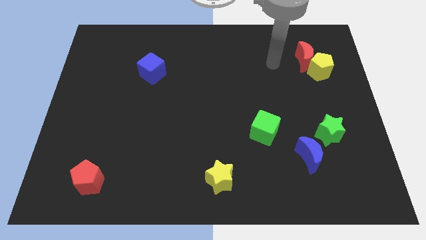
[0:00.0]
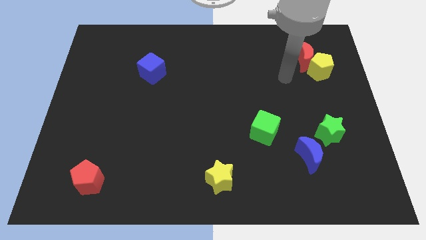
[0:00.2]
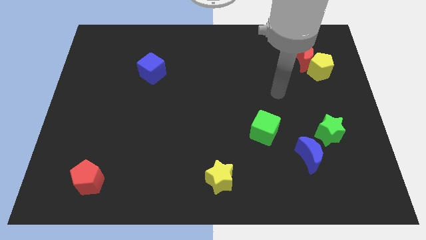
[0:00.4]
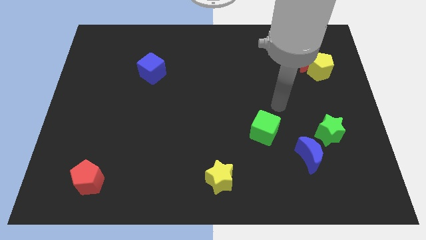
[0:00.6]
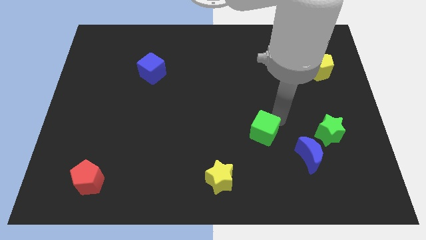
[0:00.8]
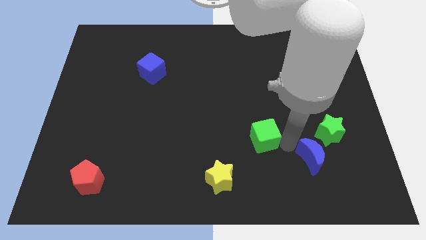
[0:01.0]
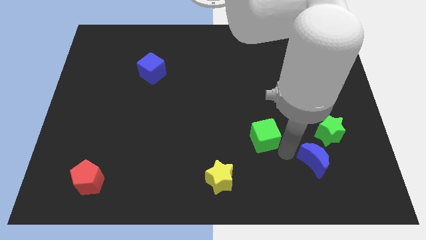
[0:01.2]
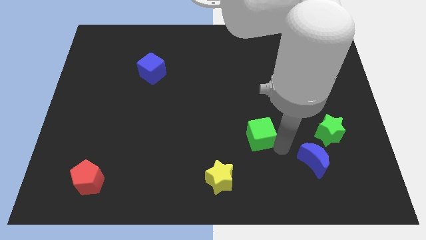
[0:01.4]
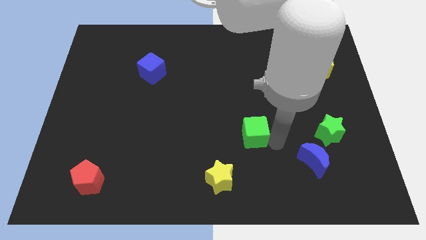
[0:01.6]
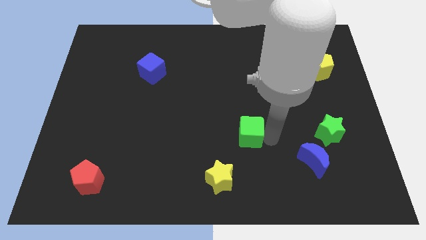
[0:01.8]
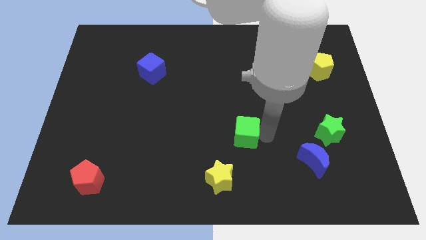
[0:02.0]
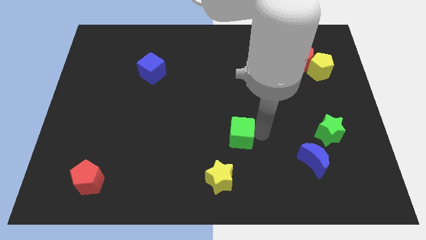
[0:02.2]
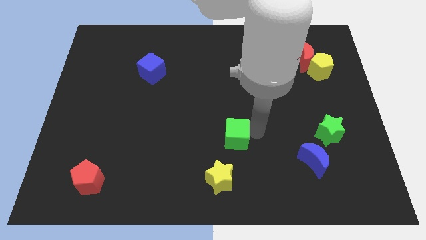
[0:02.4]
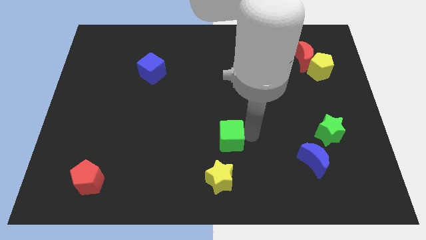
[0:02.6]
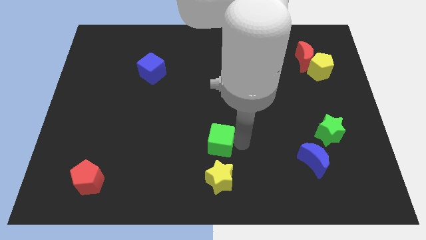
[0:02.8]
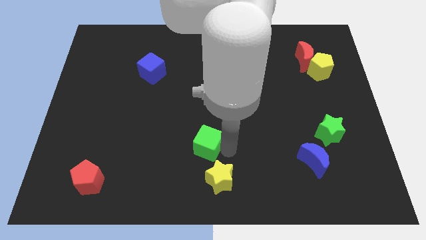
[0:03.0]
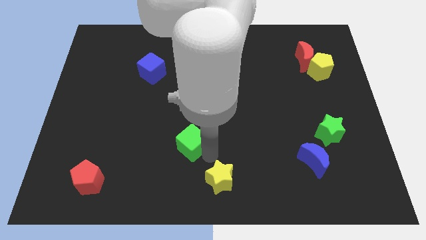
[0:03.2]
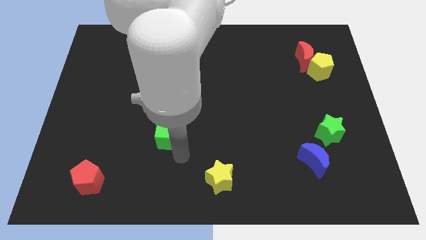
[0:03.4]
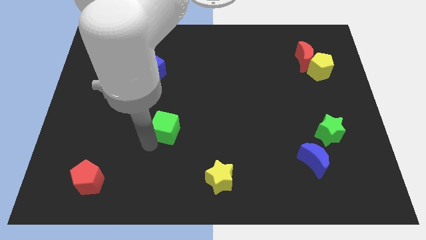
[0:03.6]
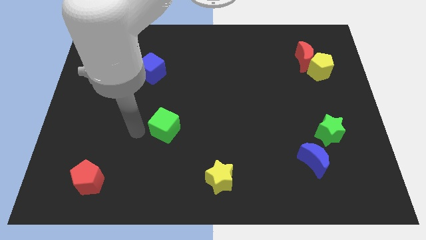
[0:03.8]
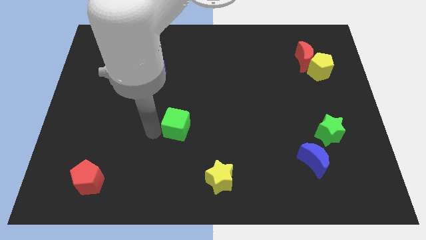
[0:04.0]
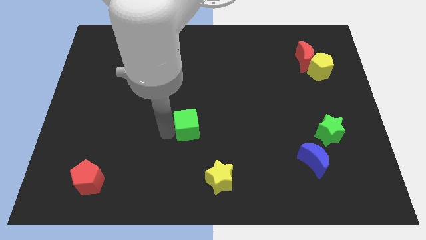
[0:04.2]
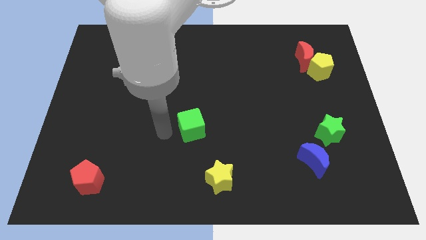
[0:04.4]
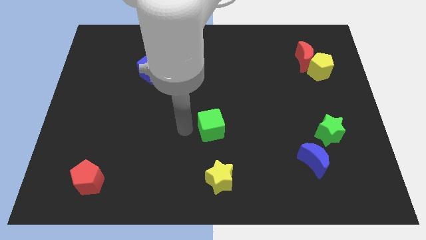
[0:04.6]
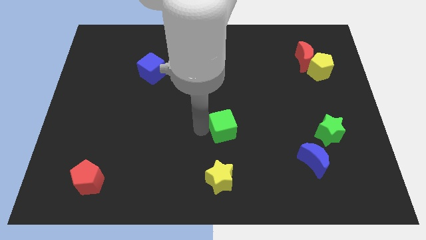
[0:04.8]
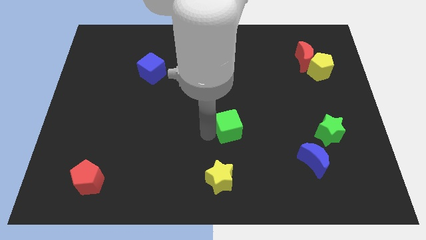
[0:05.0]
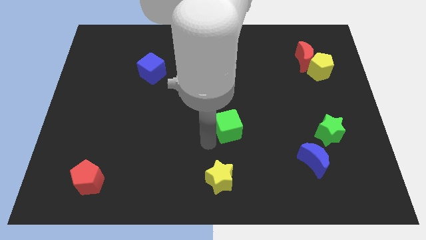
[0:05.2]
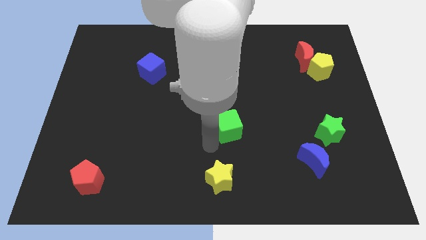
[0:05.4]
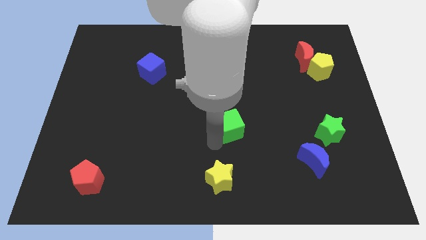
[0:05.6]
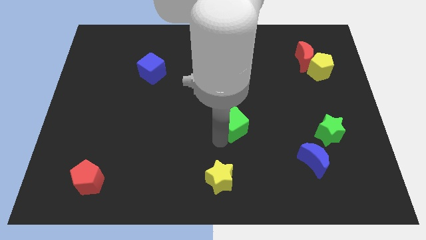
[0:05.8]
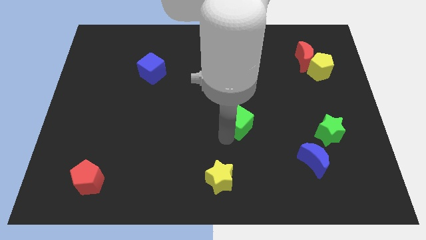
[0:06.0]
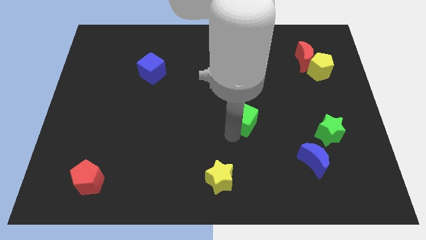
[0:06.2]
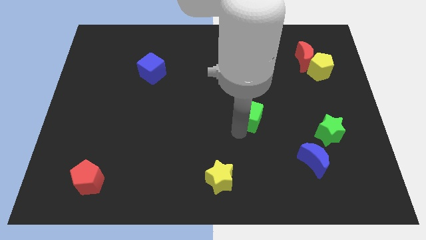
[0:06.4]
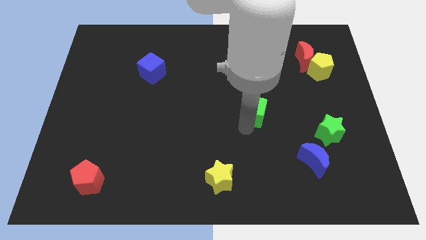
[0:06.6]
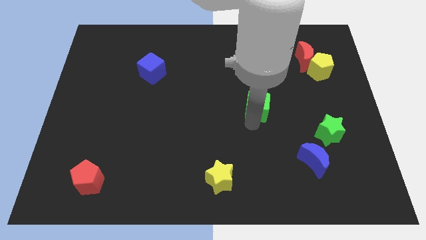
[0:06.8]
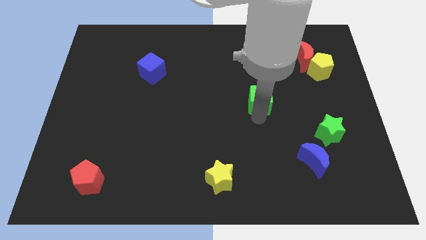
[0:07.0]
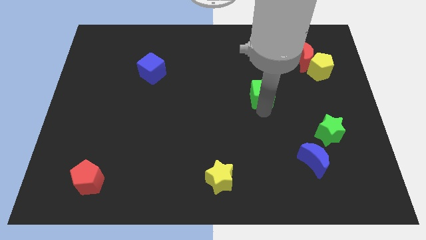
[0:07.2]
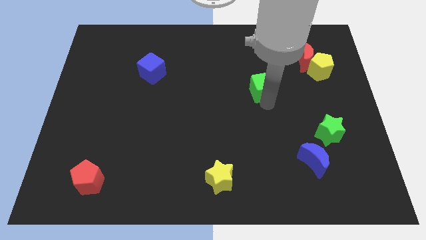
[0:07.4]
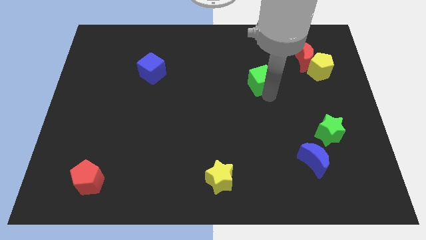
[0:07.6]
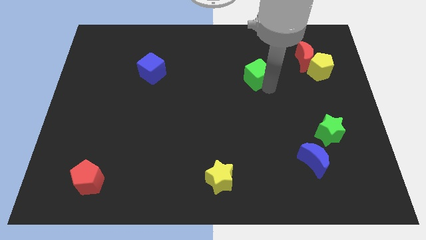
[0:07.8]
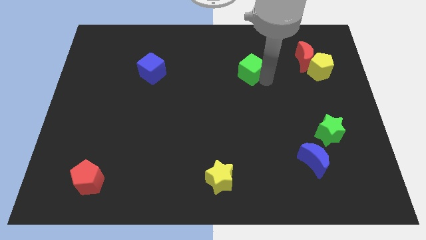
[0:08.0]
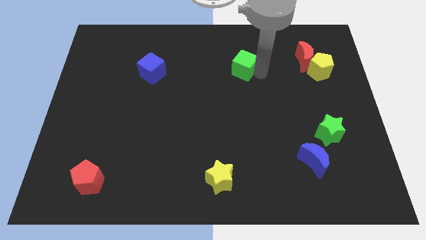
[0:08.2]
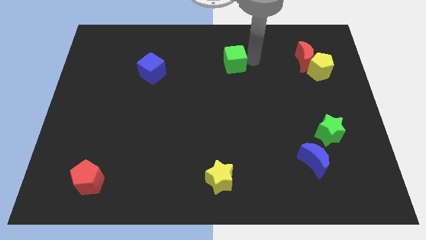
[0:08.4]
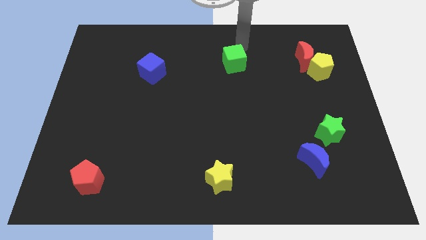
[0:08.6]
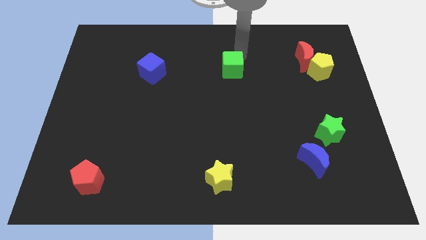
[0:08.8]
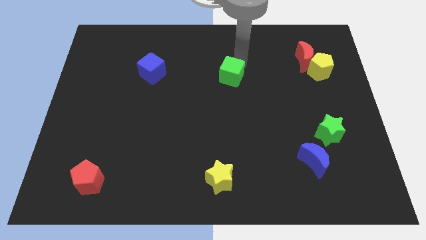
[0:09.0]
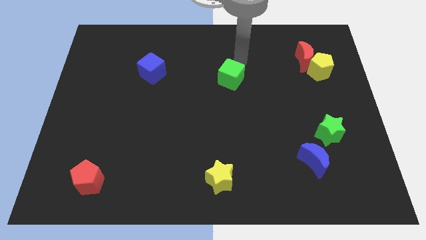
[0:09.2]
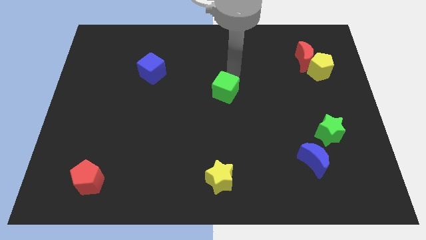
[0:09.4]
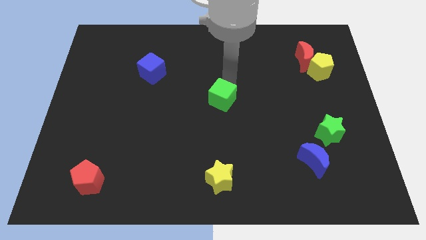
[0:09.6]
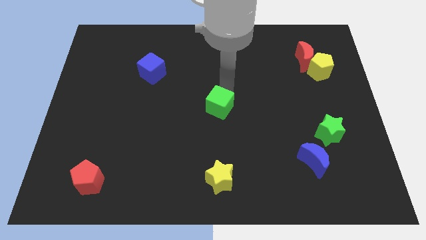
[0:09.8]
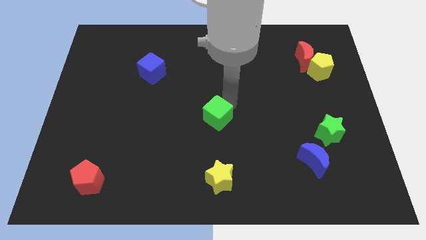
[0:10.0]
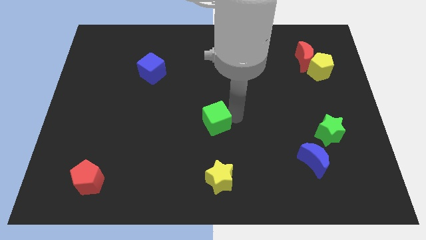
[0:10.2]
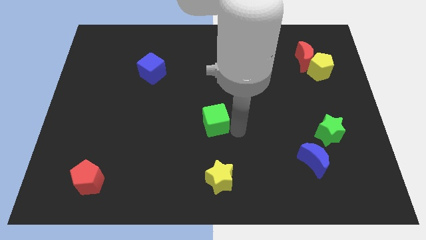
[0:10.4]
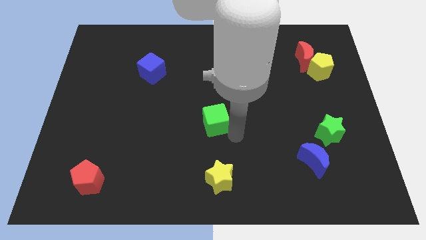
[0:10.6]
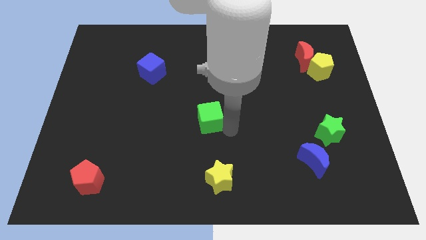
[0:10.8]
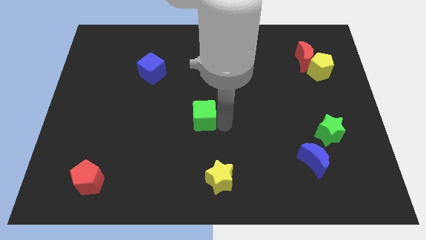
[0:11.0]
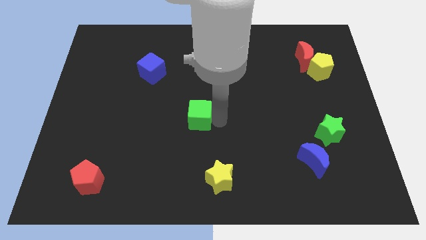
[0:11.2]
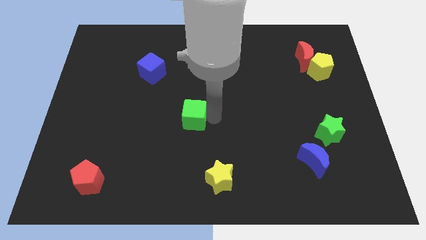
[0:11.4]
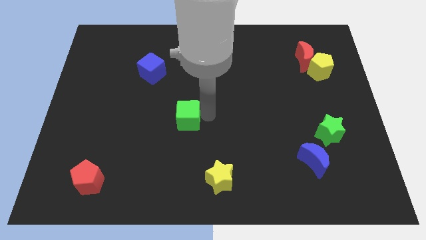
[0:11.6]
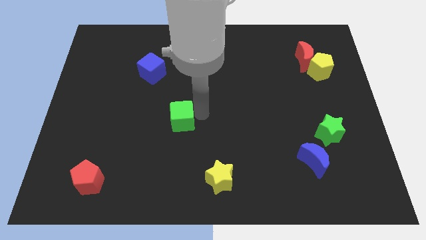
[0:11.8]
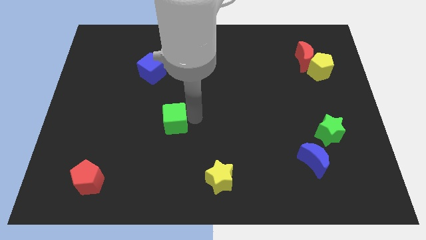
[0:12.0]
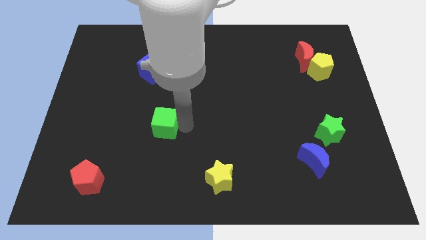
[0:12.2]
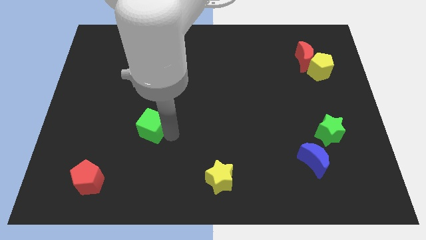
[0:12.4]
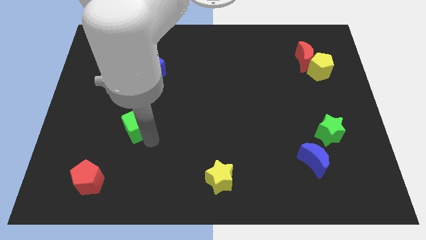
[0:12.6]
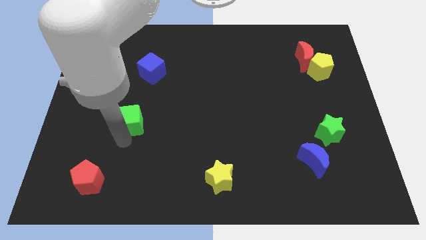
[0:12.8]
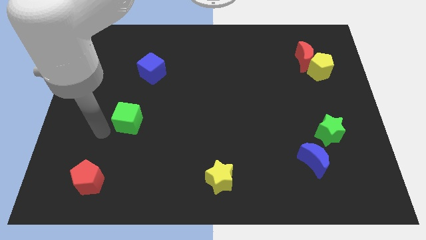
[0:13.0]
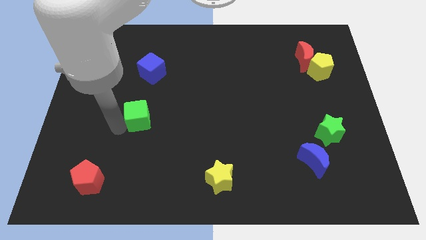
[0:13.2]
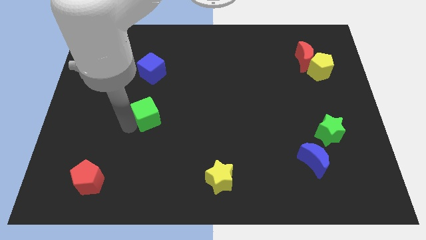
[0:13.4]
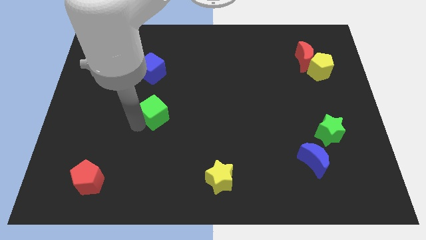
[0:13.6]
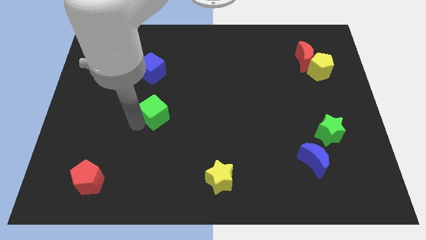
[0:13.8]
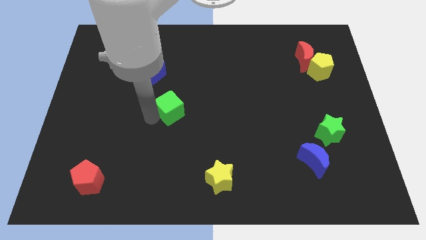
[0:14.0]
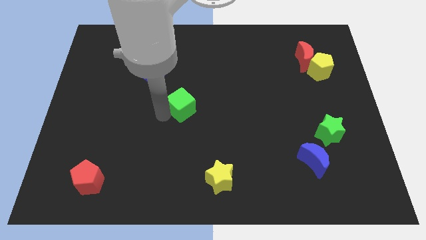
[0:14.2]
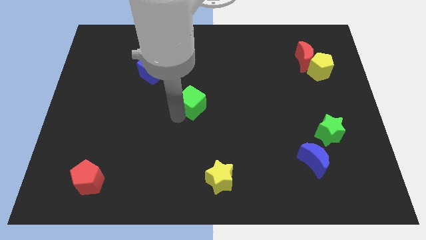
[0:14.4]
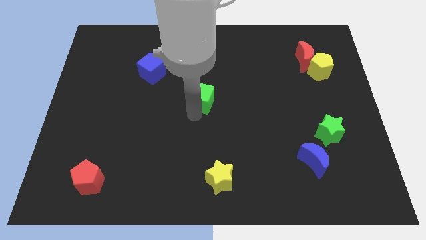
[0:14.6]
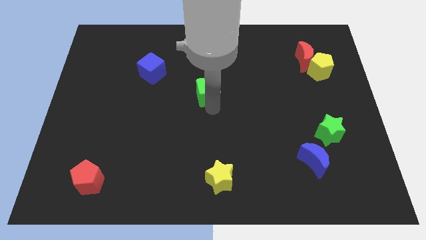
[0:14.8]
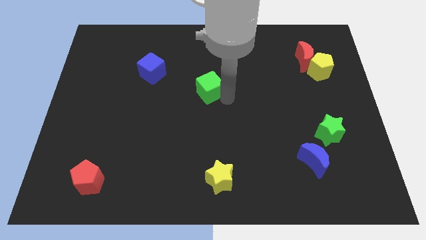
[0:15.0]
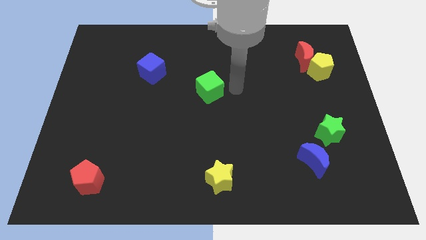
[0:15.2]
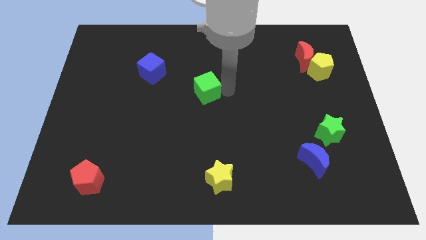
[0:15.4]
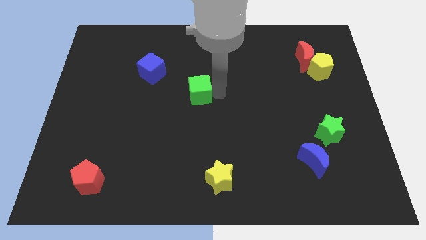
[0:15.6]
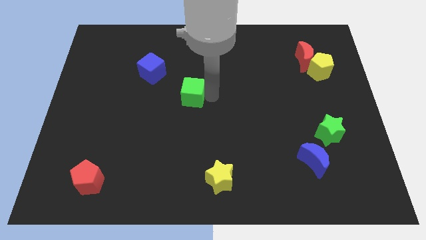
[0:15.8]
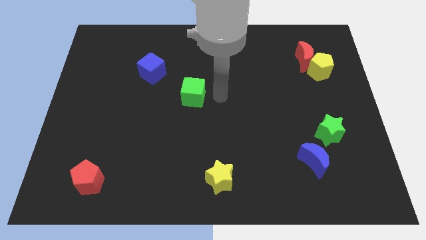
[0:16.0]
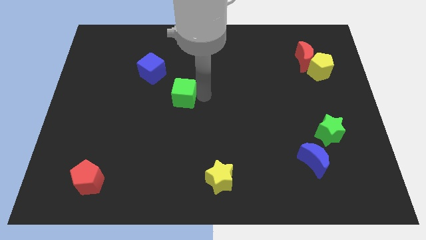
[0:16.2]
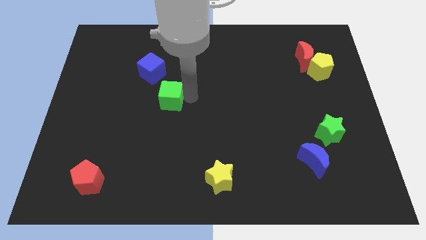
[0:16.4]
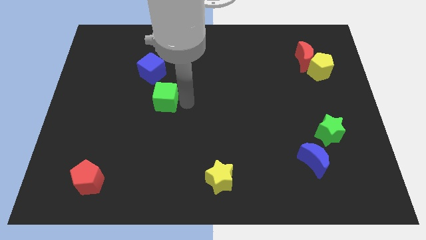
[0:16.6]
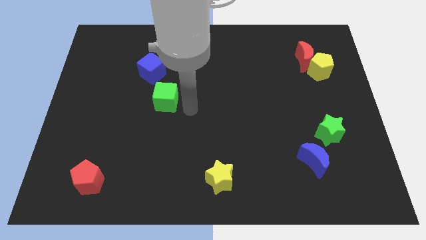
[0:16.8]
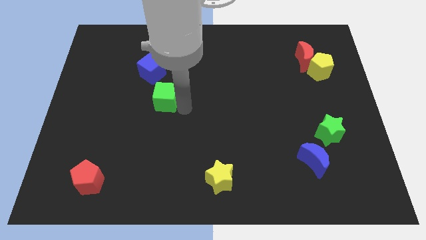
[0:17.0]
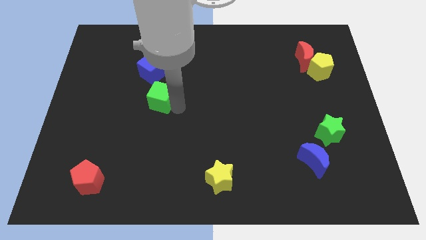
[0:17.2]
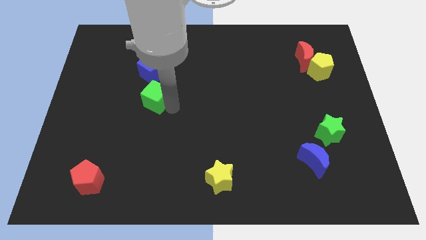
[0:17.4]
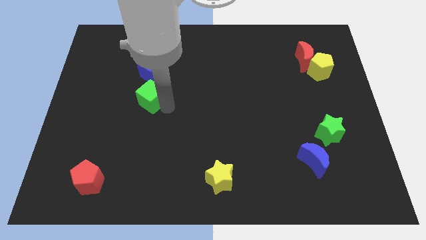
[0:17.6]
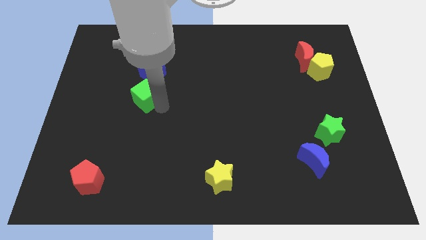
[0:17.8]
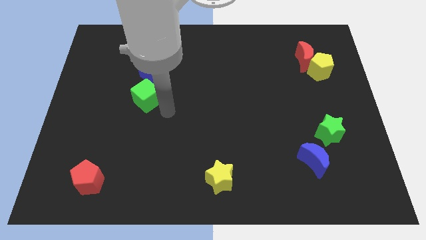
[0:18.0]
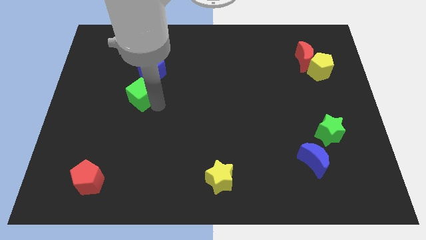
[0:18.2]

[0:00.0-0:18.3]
put the green cube to the bottom left of the blue cube
